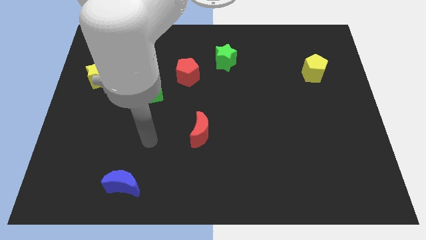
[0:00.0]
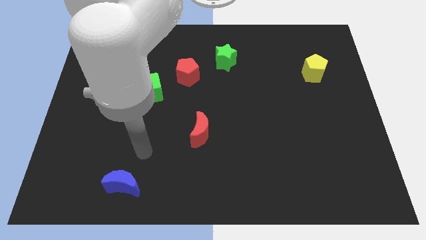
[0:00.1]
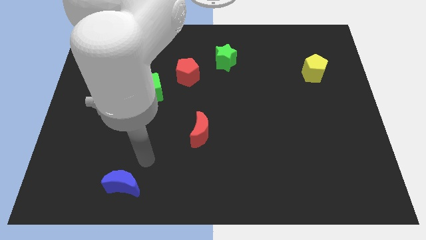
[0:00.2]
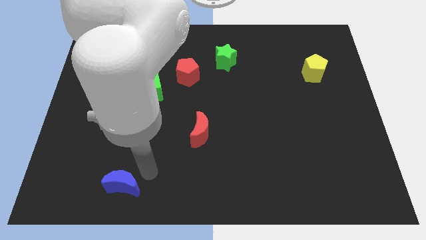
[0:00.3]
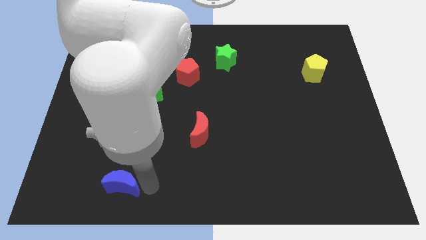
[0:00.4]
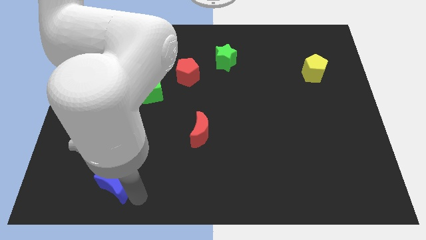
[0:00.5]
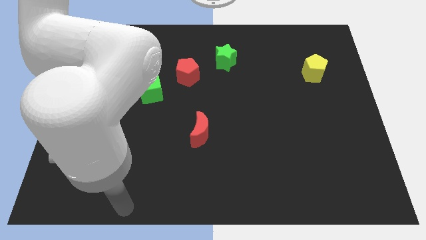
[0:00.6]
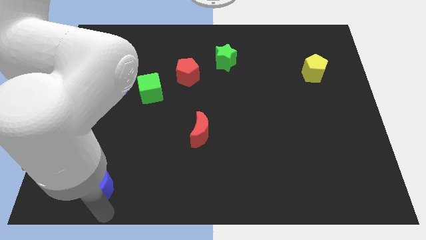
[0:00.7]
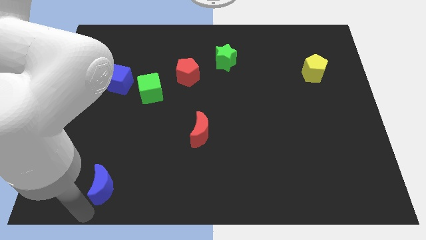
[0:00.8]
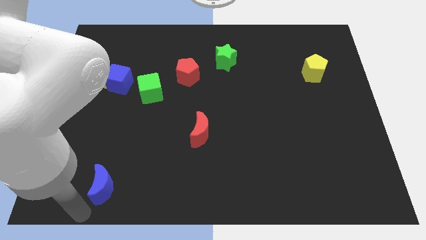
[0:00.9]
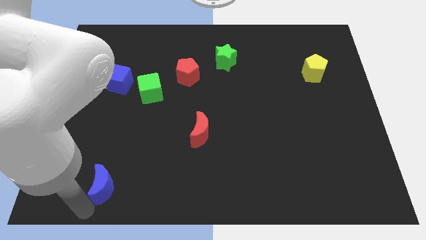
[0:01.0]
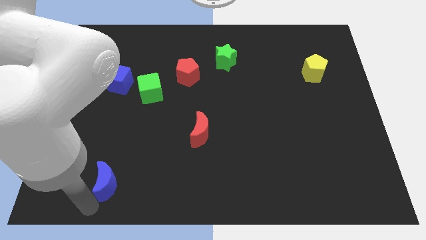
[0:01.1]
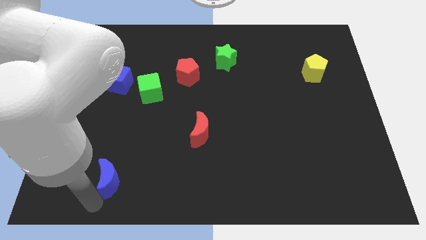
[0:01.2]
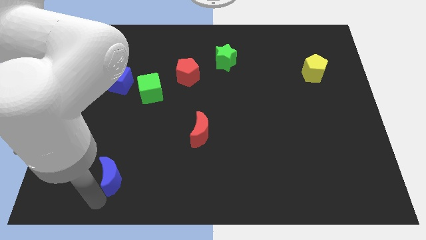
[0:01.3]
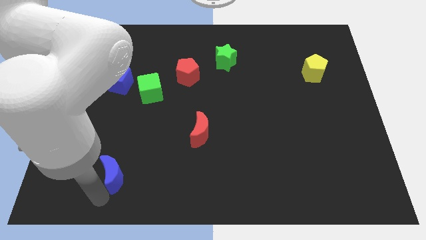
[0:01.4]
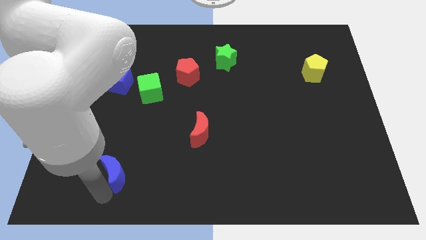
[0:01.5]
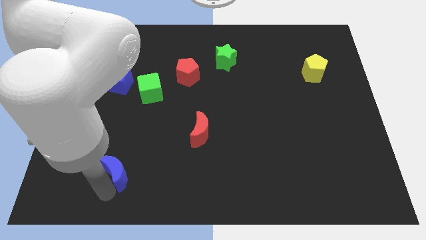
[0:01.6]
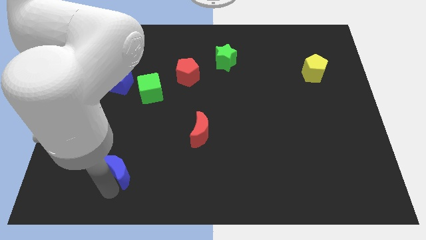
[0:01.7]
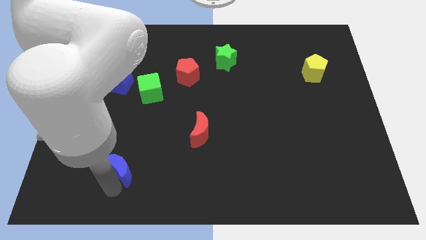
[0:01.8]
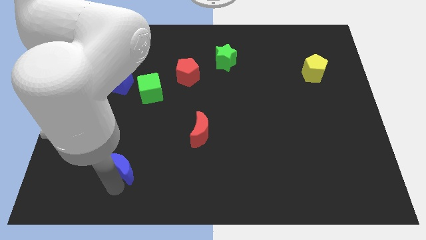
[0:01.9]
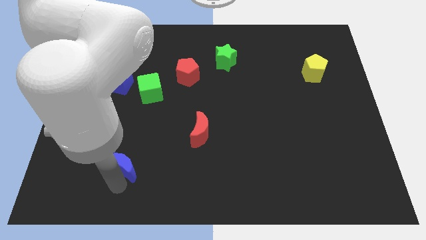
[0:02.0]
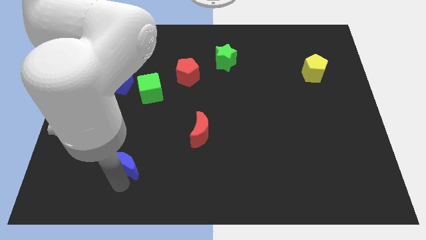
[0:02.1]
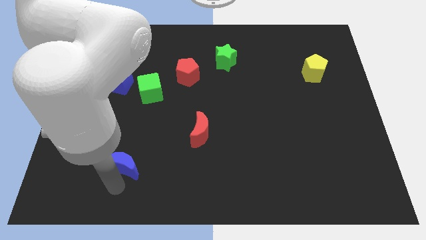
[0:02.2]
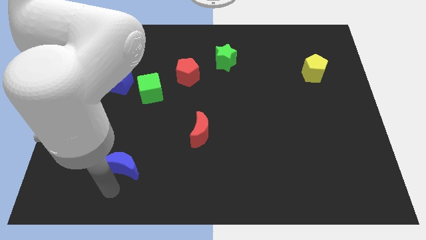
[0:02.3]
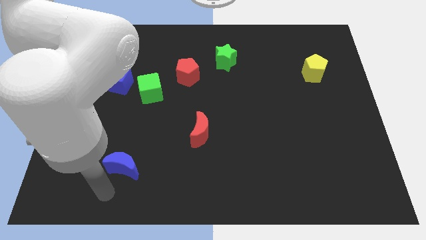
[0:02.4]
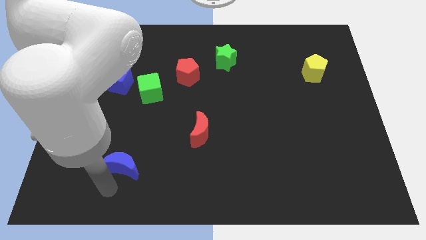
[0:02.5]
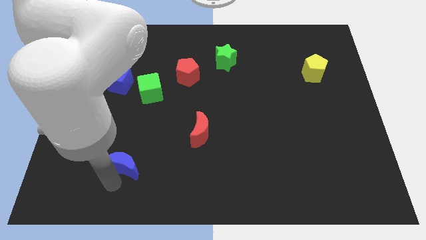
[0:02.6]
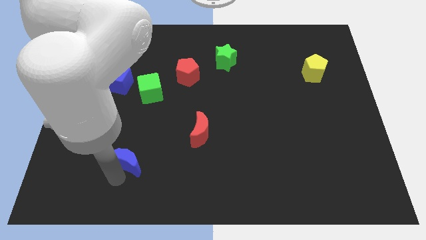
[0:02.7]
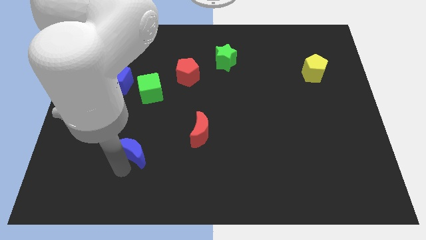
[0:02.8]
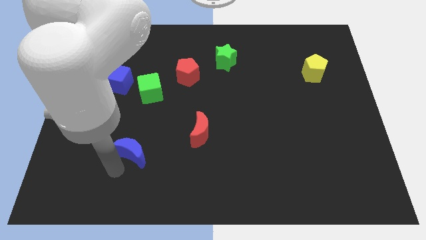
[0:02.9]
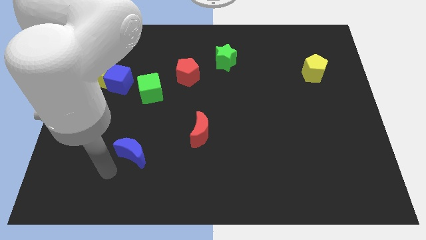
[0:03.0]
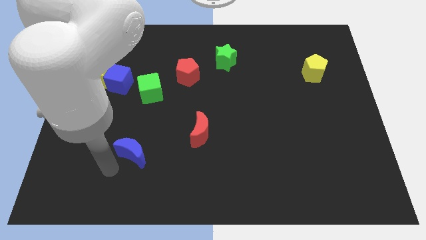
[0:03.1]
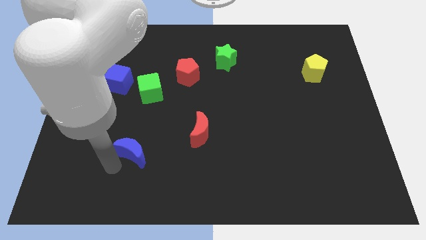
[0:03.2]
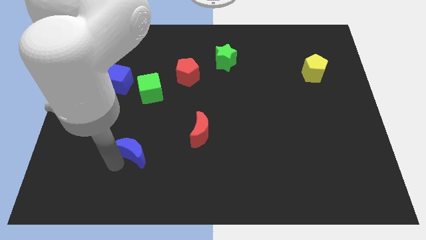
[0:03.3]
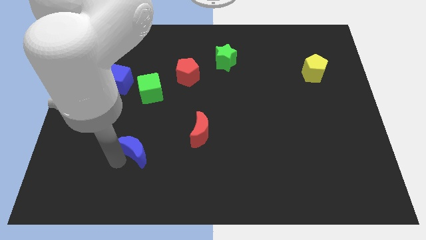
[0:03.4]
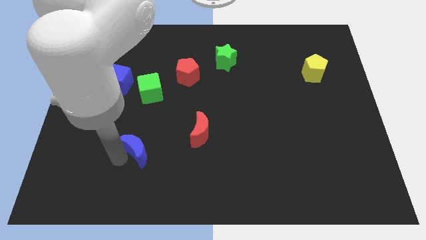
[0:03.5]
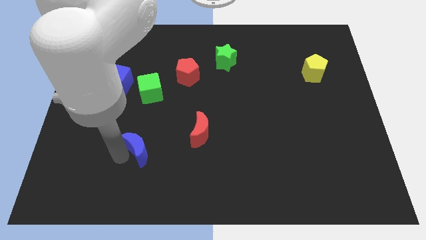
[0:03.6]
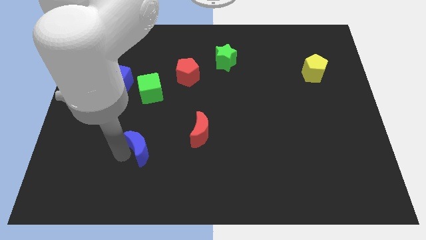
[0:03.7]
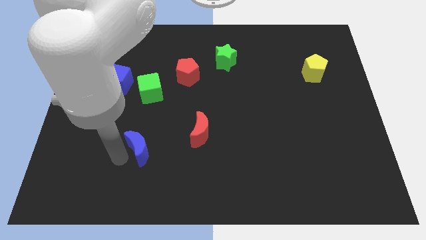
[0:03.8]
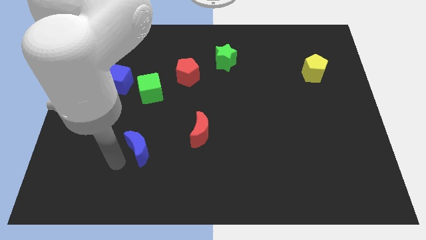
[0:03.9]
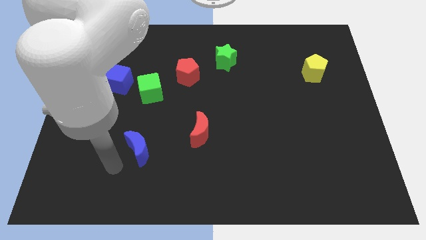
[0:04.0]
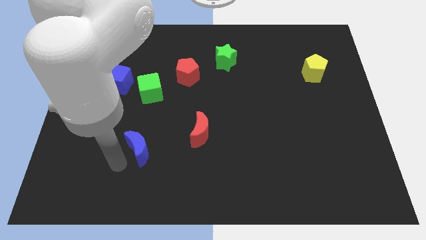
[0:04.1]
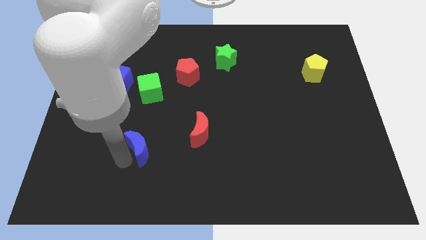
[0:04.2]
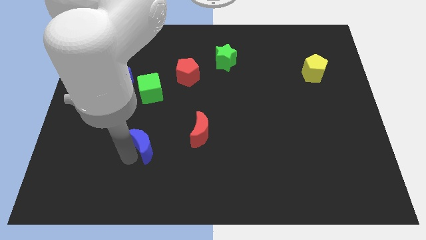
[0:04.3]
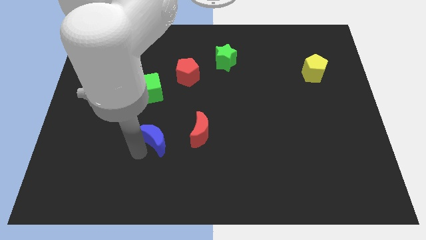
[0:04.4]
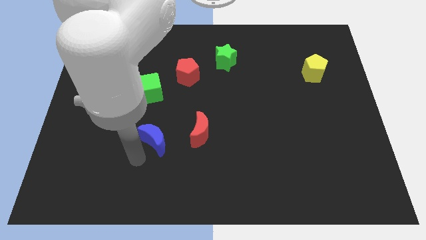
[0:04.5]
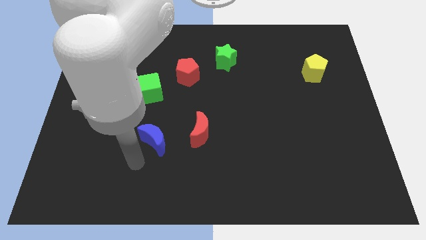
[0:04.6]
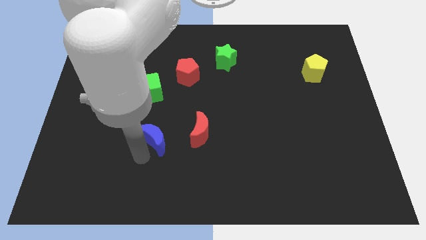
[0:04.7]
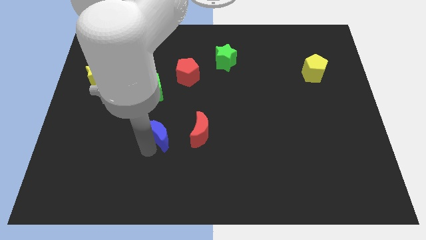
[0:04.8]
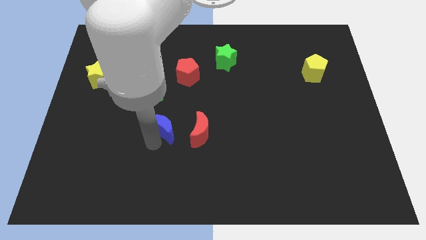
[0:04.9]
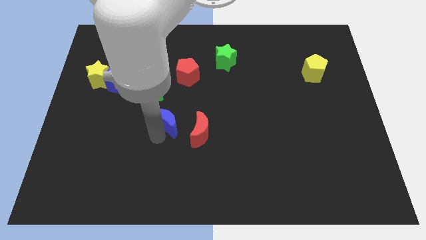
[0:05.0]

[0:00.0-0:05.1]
slide the blue moon to the top left side of the red moon

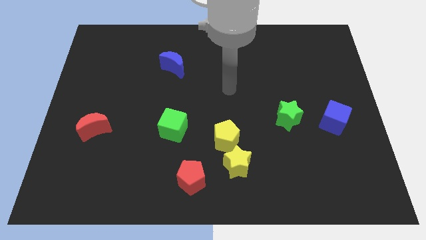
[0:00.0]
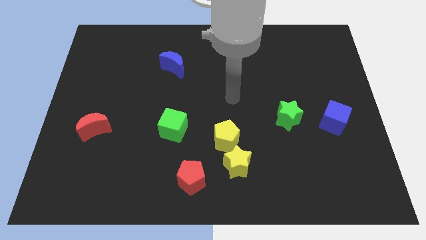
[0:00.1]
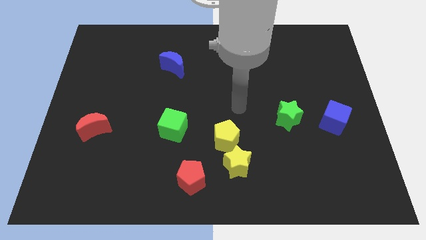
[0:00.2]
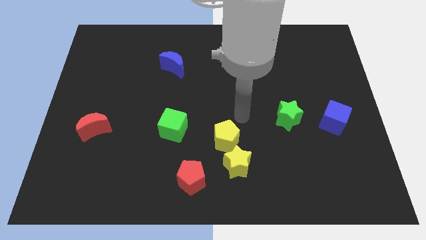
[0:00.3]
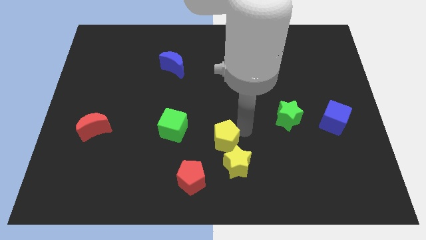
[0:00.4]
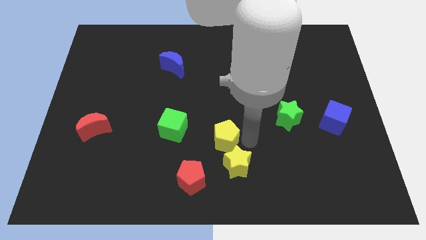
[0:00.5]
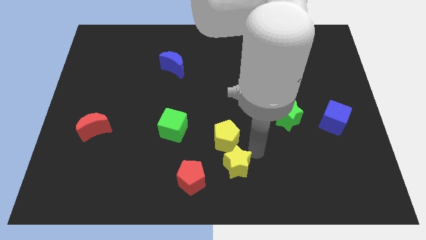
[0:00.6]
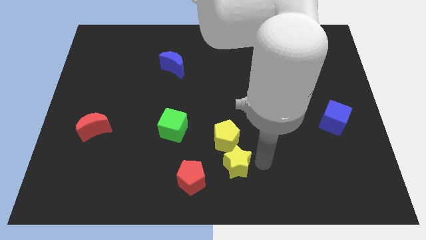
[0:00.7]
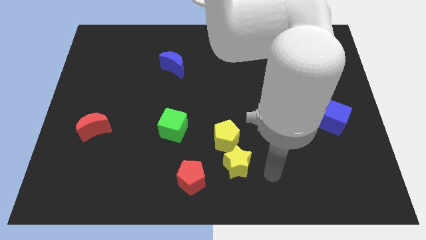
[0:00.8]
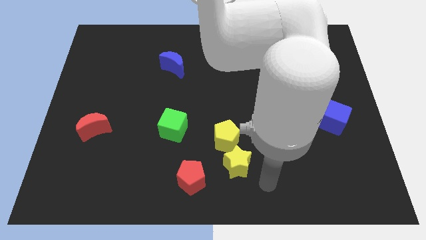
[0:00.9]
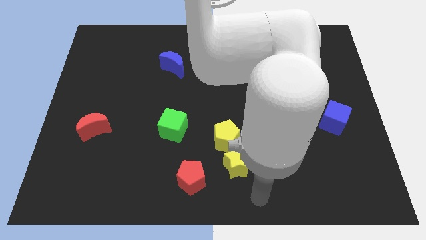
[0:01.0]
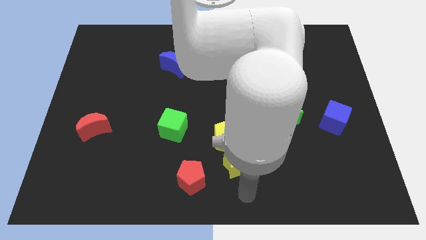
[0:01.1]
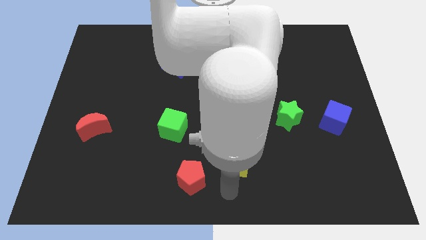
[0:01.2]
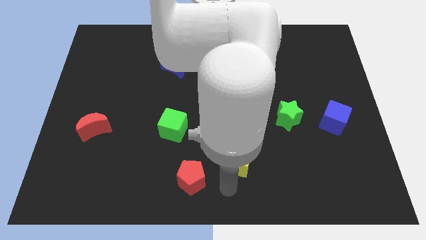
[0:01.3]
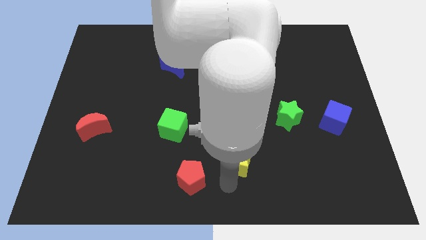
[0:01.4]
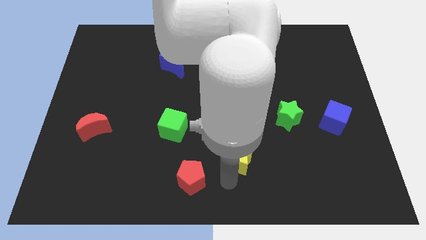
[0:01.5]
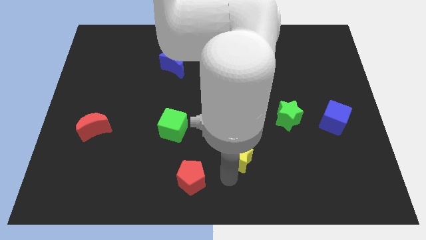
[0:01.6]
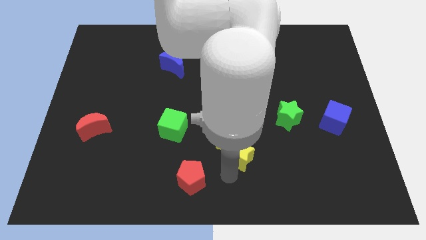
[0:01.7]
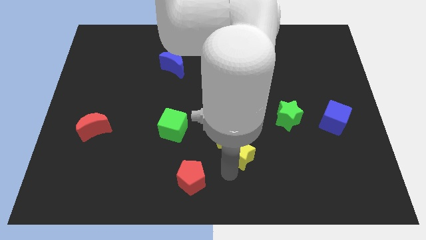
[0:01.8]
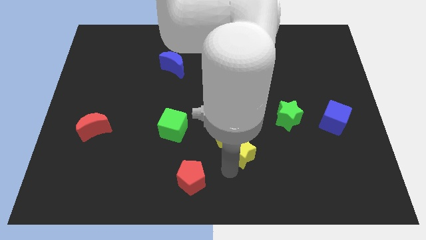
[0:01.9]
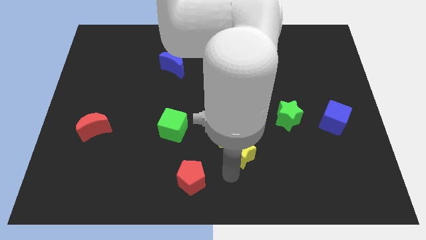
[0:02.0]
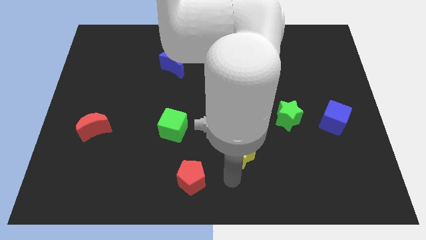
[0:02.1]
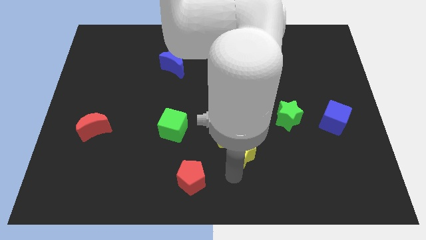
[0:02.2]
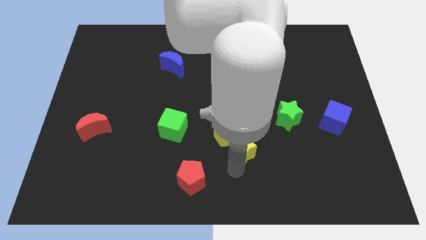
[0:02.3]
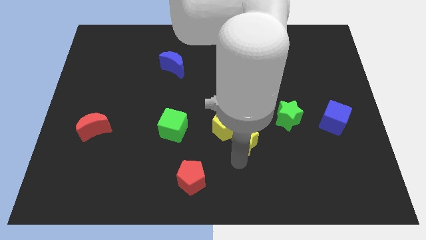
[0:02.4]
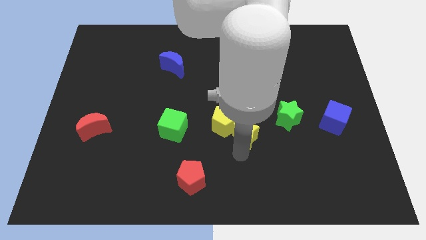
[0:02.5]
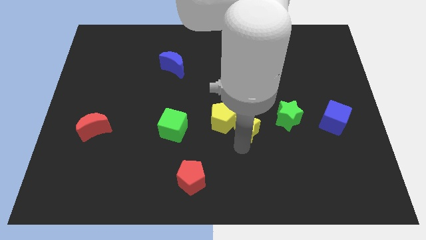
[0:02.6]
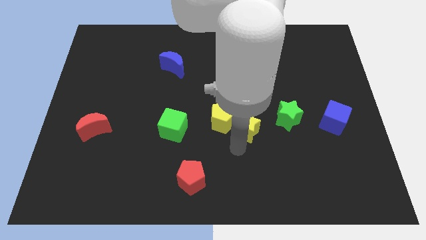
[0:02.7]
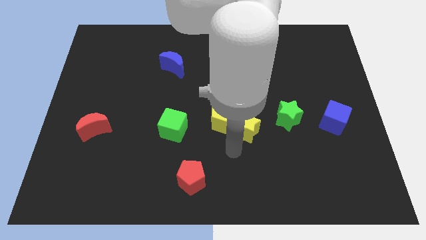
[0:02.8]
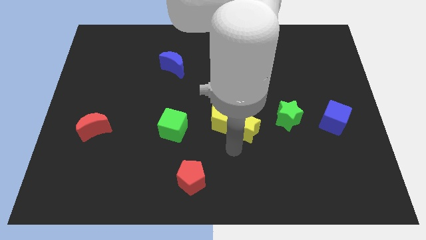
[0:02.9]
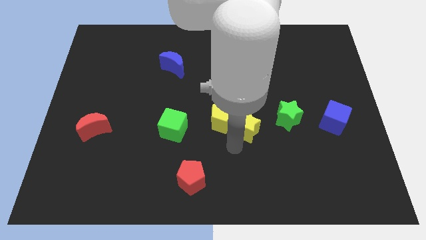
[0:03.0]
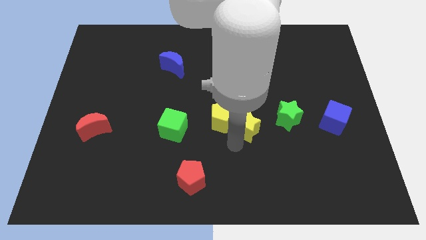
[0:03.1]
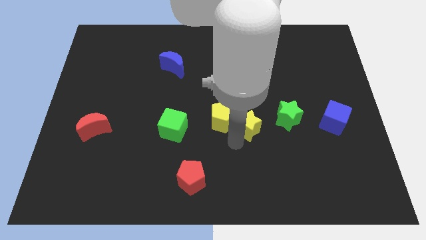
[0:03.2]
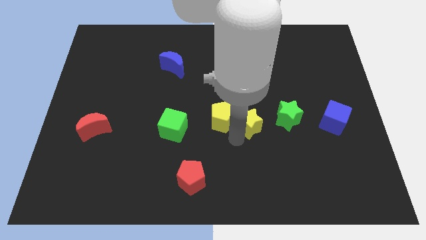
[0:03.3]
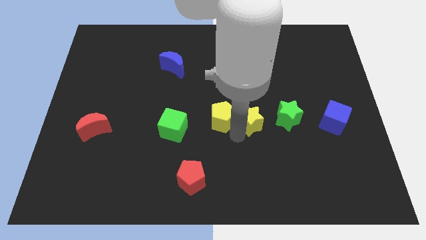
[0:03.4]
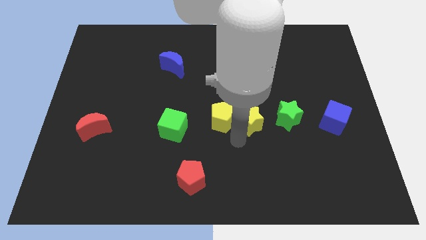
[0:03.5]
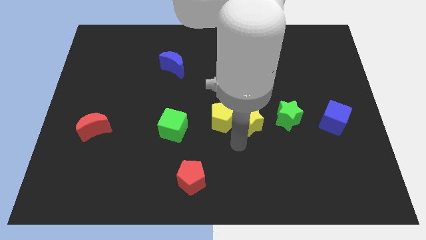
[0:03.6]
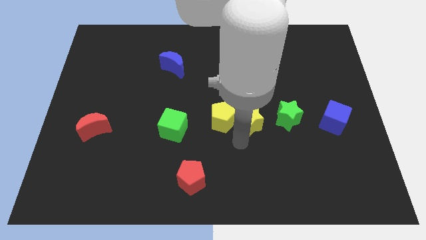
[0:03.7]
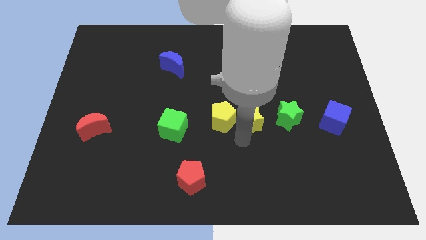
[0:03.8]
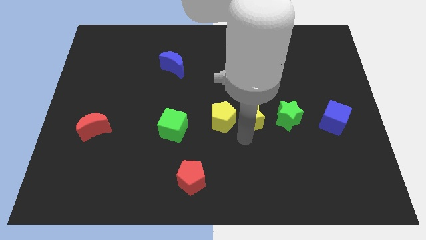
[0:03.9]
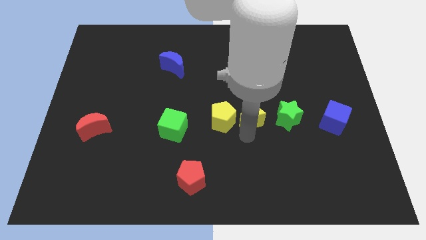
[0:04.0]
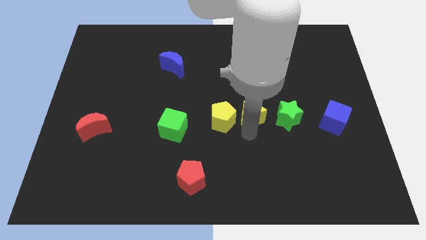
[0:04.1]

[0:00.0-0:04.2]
slide the yellow star diagonally up and to the left of the green star
